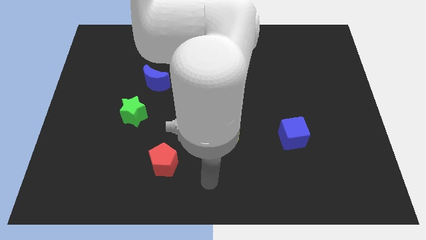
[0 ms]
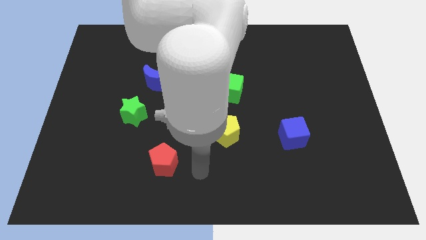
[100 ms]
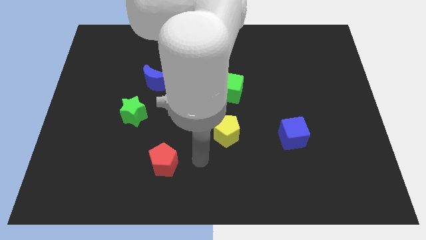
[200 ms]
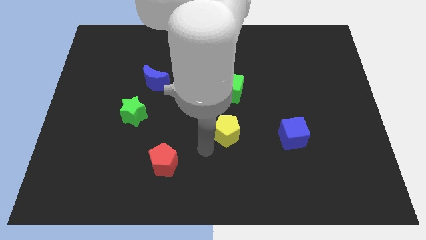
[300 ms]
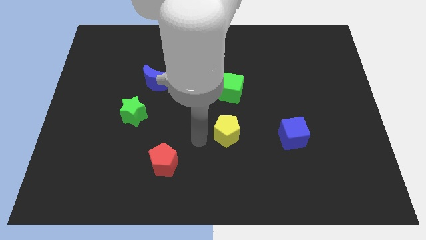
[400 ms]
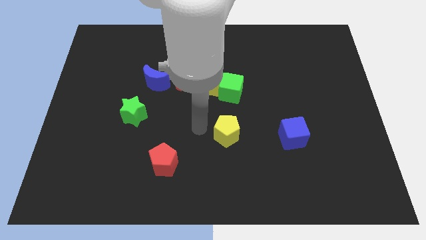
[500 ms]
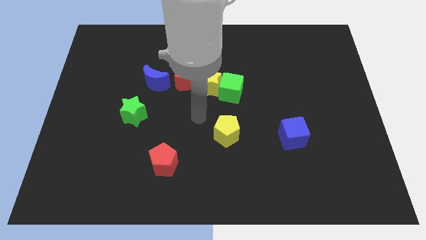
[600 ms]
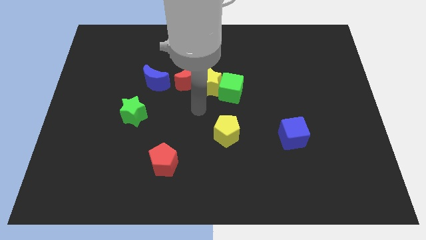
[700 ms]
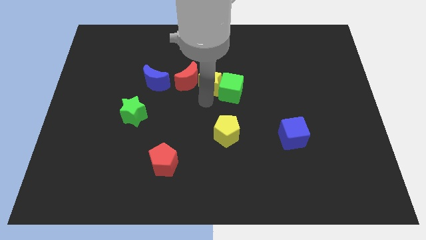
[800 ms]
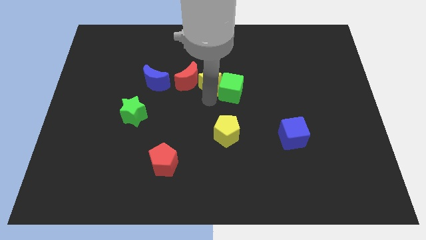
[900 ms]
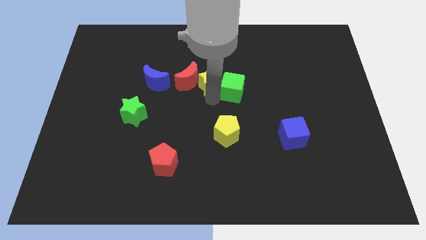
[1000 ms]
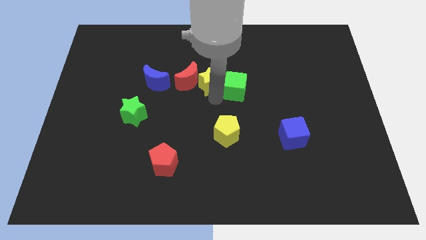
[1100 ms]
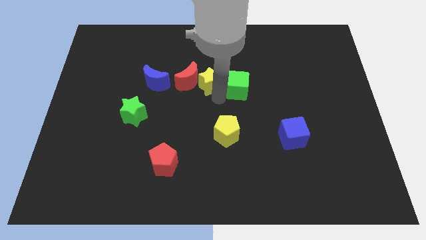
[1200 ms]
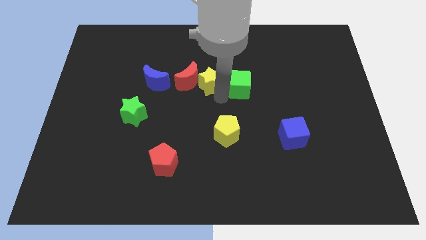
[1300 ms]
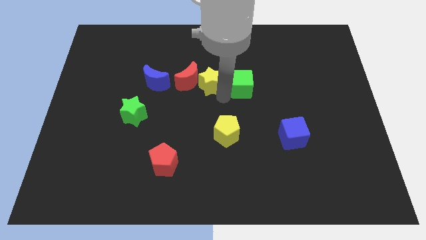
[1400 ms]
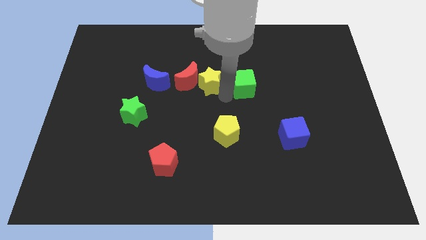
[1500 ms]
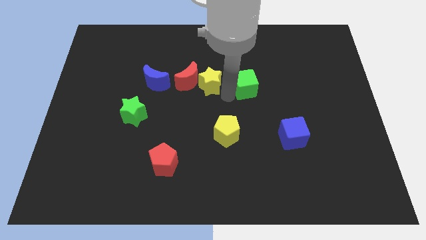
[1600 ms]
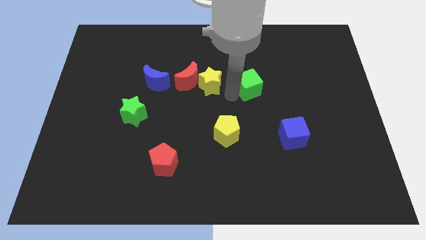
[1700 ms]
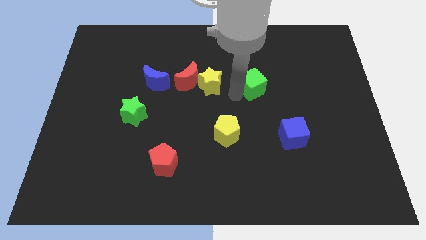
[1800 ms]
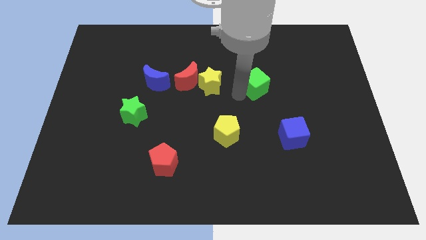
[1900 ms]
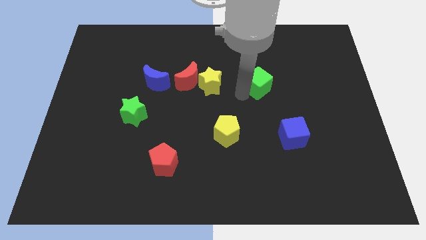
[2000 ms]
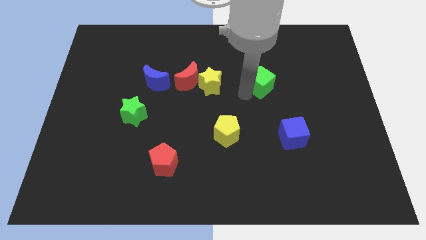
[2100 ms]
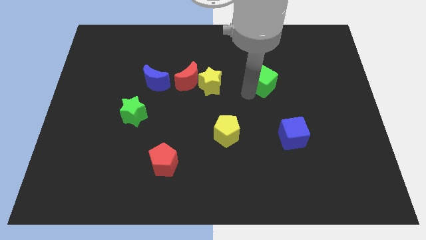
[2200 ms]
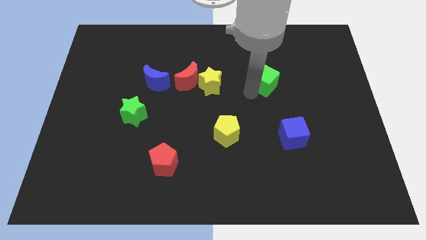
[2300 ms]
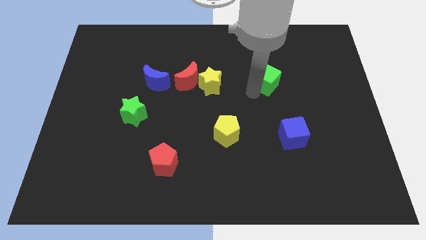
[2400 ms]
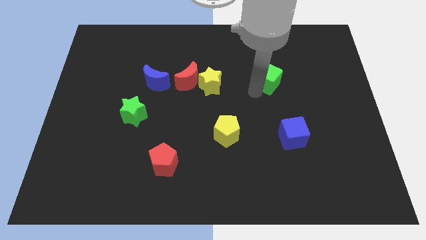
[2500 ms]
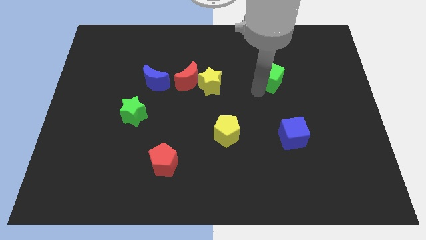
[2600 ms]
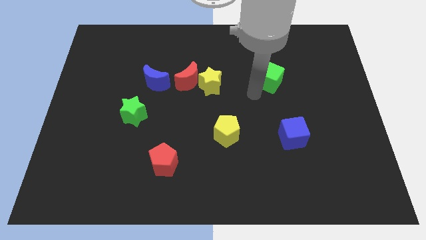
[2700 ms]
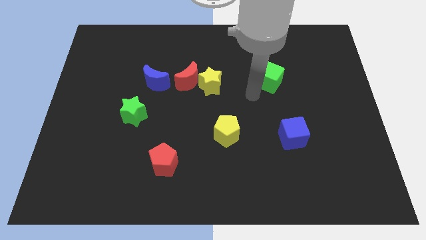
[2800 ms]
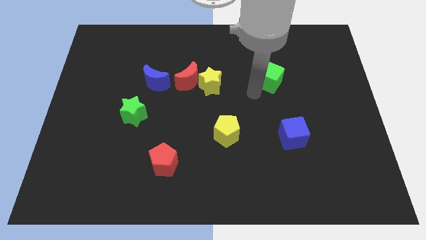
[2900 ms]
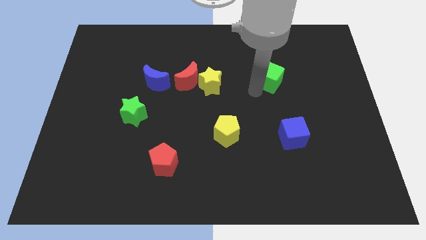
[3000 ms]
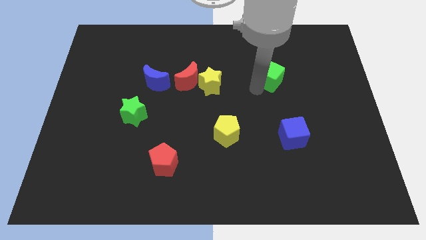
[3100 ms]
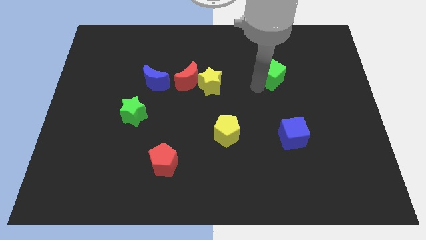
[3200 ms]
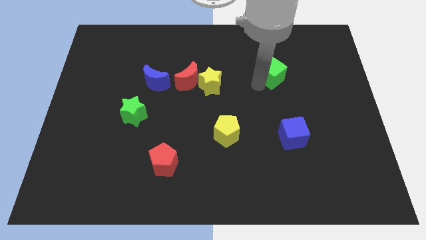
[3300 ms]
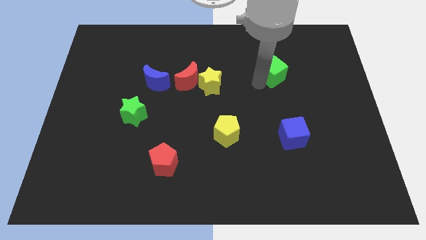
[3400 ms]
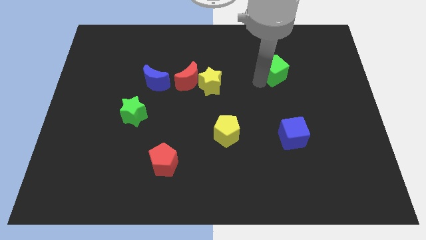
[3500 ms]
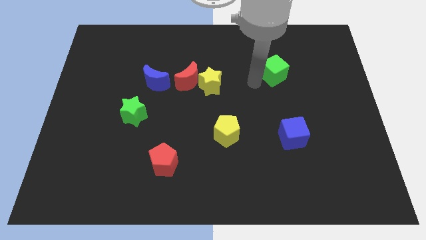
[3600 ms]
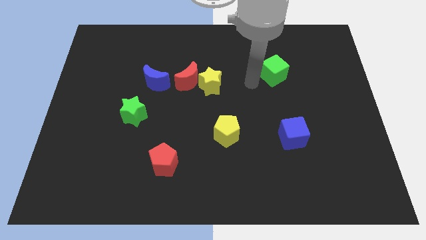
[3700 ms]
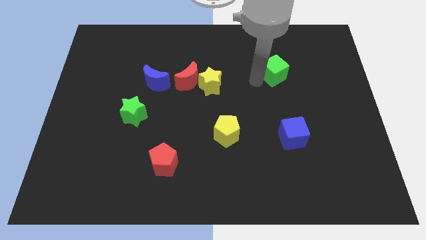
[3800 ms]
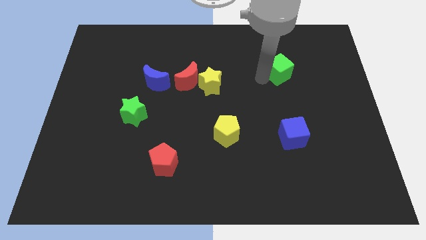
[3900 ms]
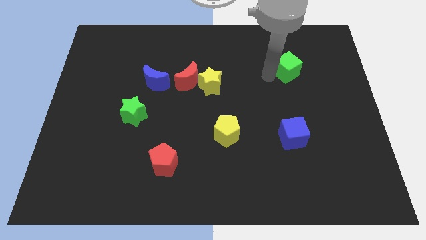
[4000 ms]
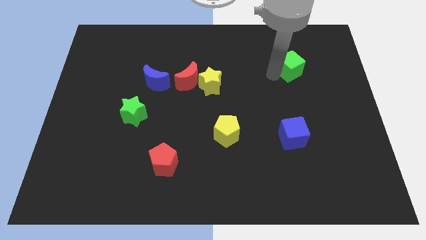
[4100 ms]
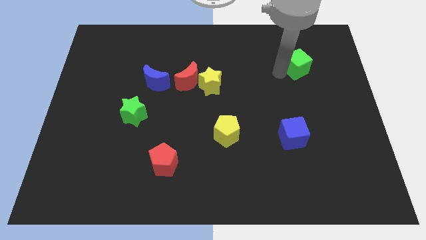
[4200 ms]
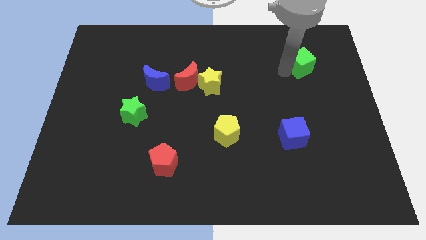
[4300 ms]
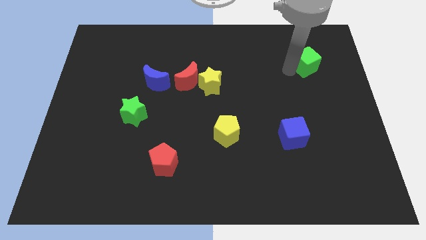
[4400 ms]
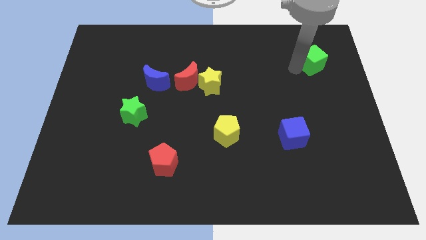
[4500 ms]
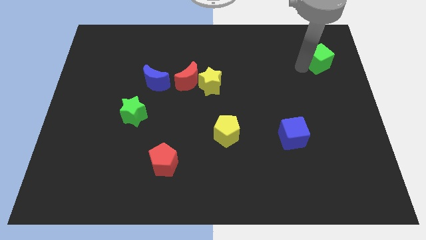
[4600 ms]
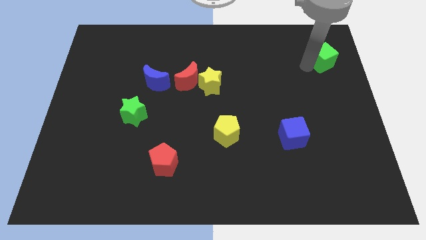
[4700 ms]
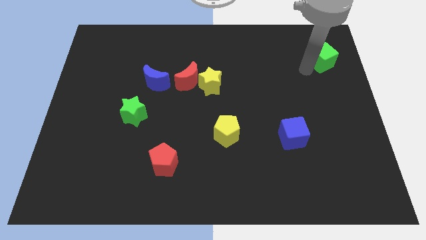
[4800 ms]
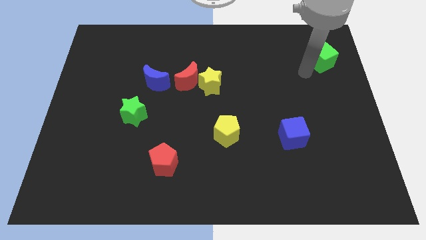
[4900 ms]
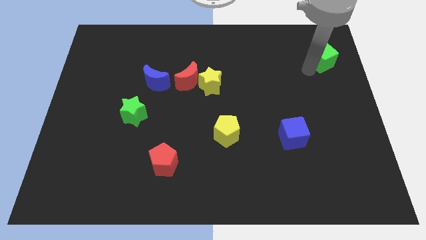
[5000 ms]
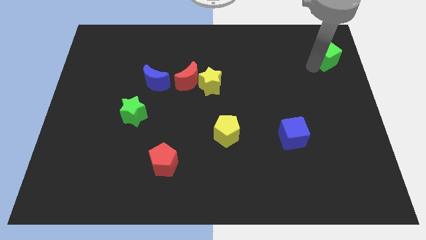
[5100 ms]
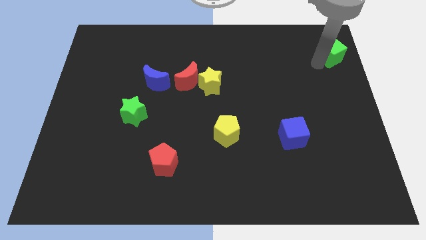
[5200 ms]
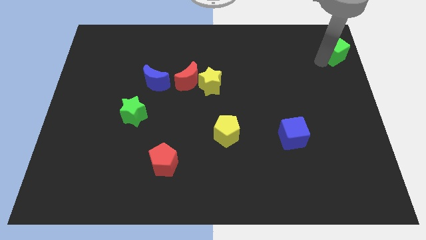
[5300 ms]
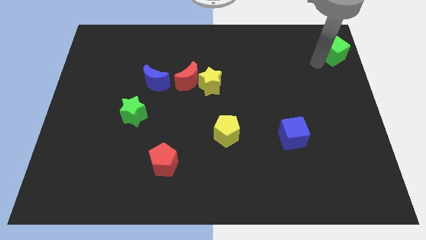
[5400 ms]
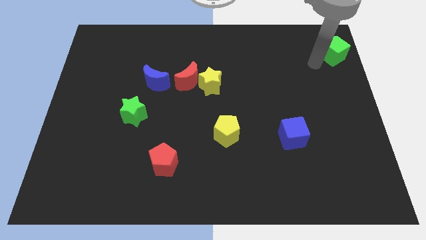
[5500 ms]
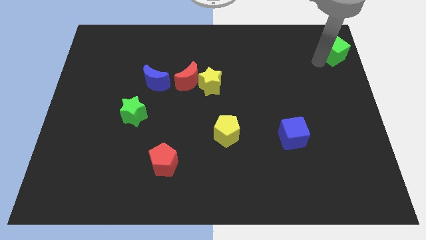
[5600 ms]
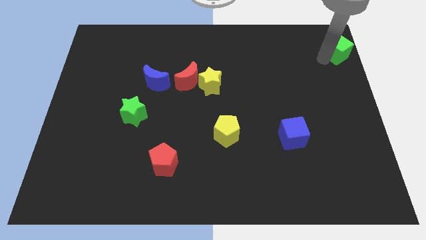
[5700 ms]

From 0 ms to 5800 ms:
push the green cube to the top right

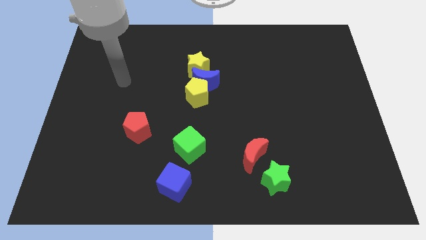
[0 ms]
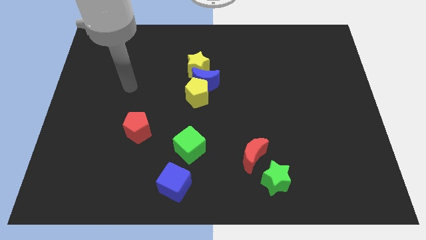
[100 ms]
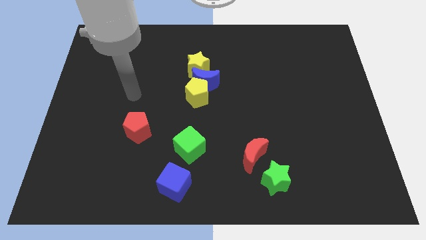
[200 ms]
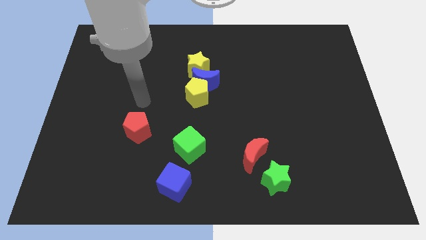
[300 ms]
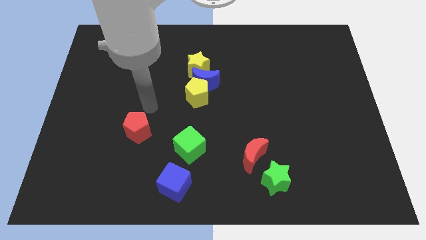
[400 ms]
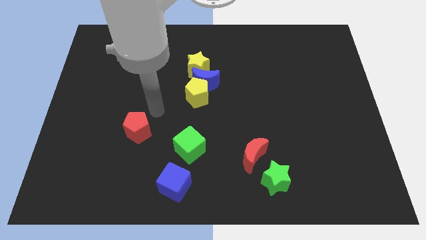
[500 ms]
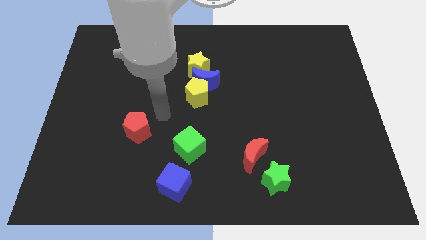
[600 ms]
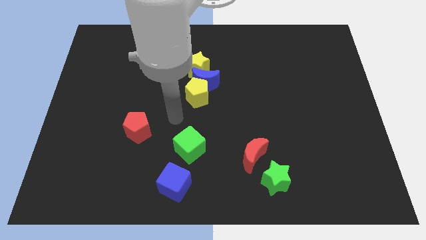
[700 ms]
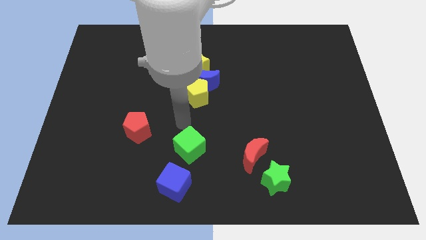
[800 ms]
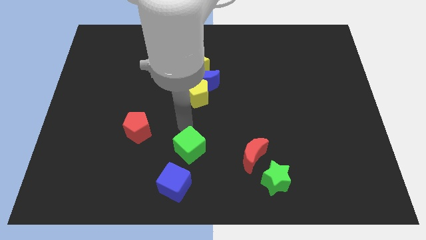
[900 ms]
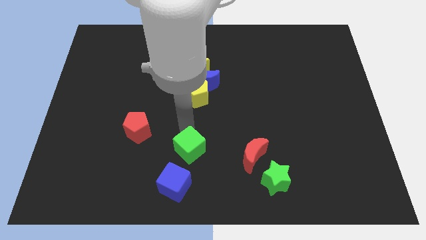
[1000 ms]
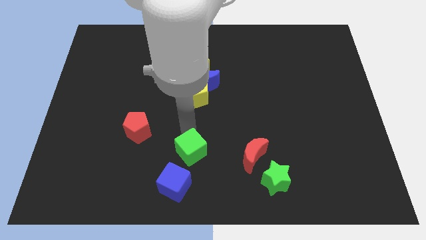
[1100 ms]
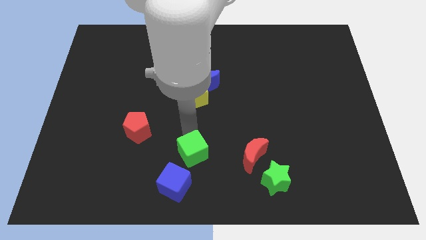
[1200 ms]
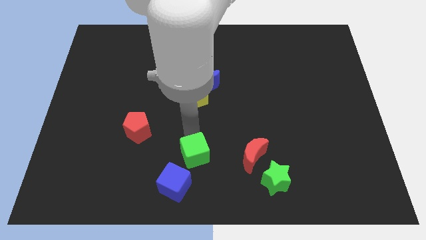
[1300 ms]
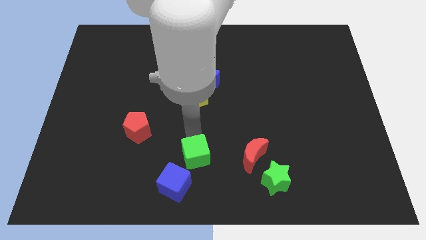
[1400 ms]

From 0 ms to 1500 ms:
put the green cube to the bottom side

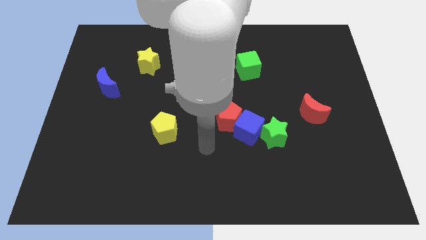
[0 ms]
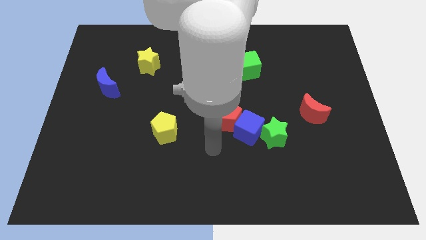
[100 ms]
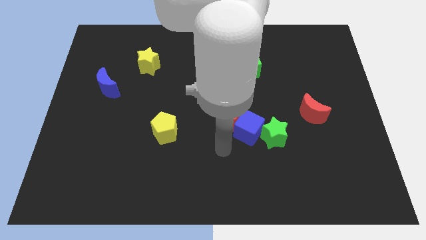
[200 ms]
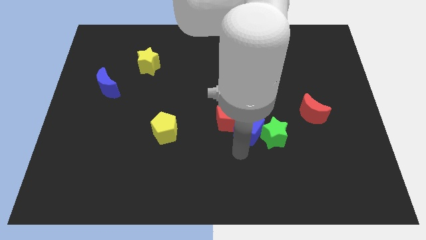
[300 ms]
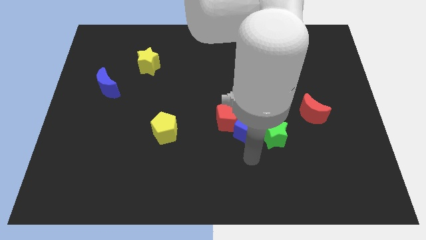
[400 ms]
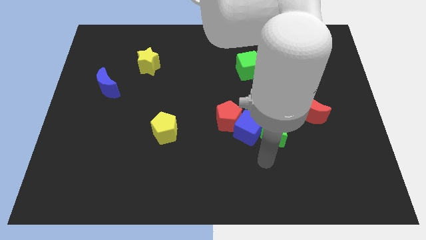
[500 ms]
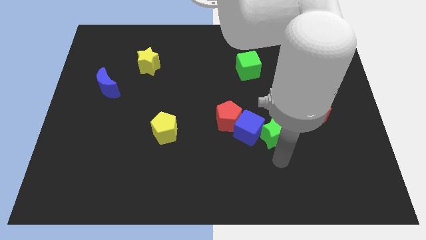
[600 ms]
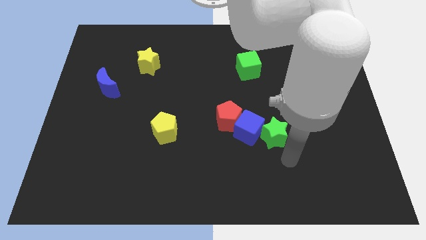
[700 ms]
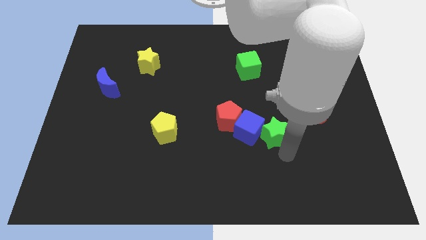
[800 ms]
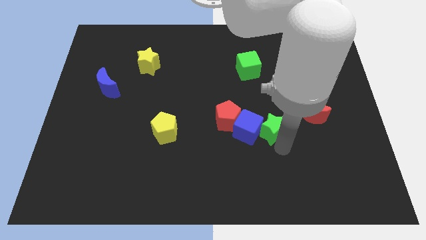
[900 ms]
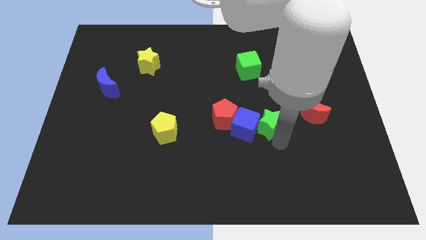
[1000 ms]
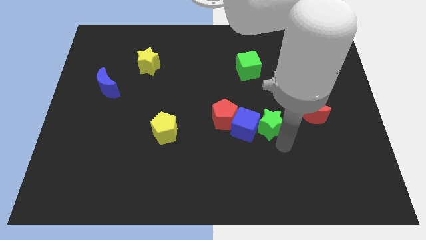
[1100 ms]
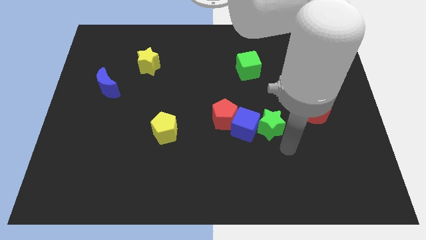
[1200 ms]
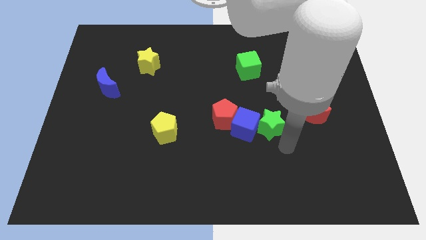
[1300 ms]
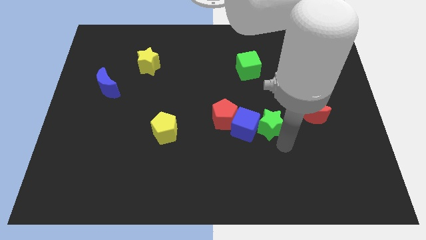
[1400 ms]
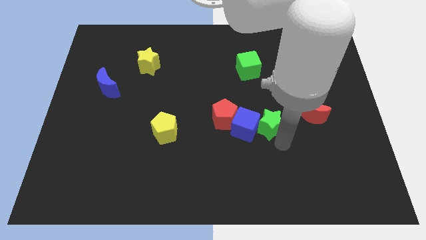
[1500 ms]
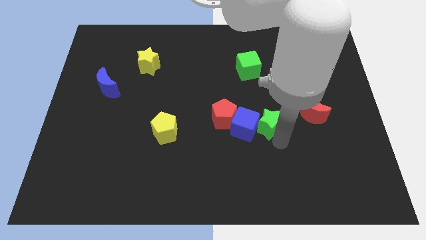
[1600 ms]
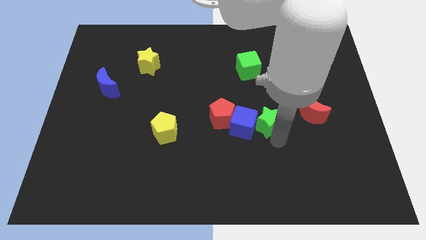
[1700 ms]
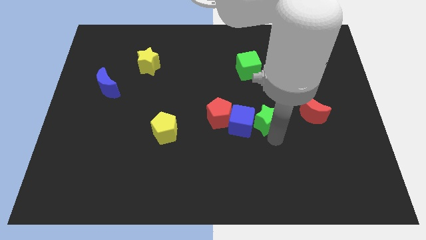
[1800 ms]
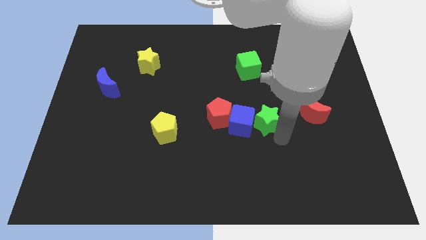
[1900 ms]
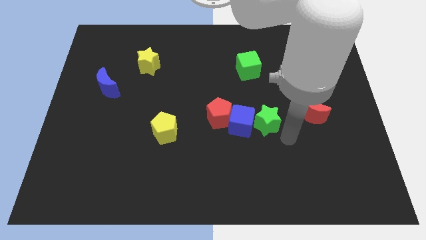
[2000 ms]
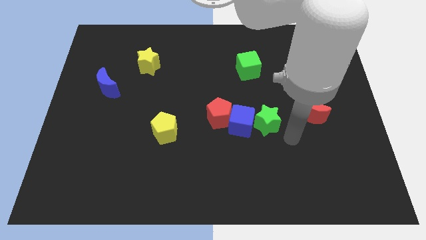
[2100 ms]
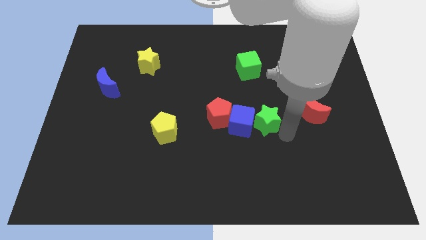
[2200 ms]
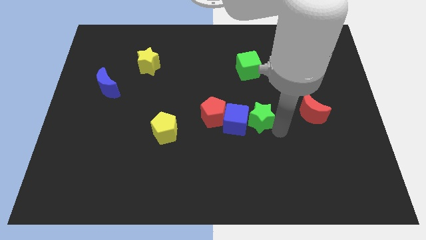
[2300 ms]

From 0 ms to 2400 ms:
push the green star to the center
